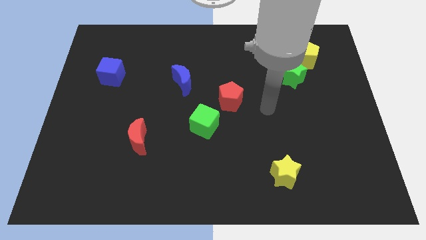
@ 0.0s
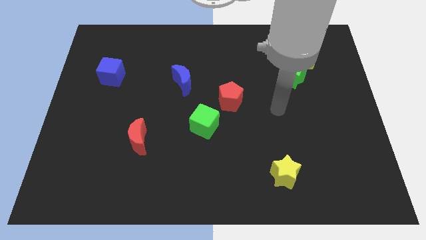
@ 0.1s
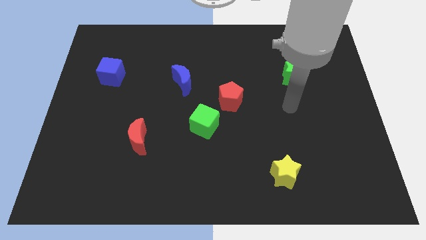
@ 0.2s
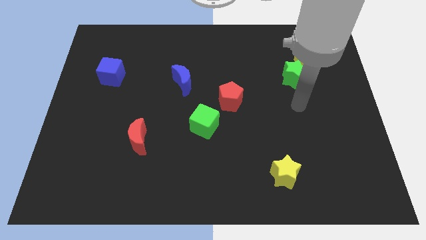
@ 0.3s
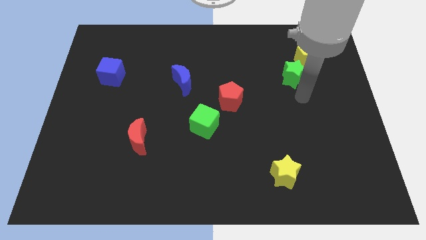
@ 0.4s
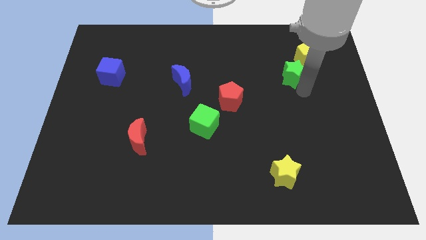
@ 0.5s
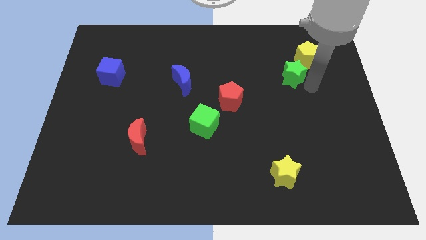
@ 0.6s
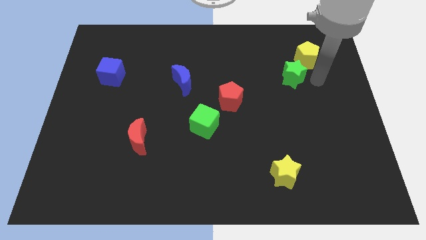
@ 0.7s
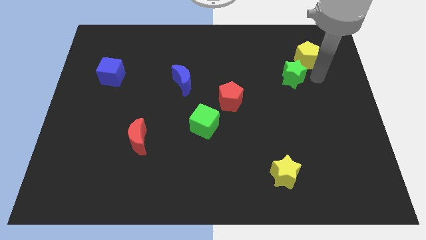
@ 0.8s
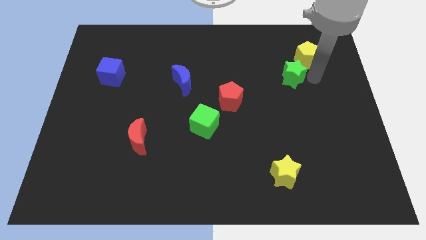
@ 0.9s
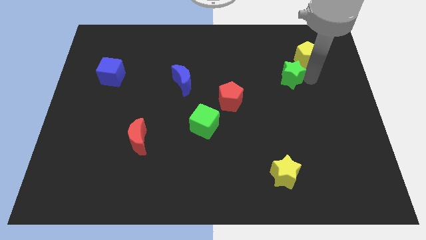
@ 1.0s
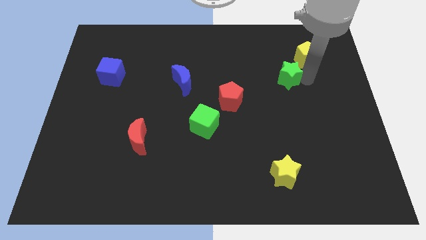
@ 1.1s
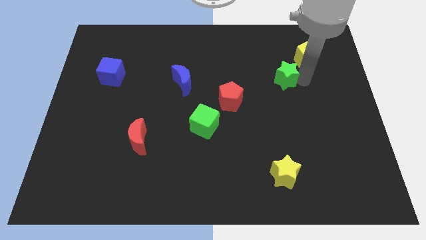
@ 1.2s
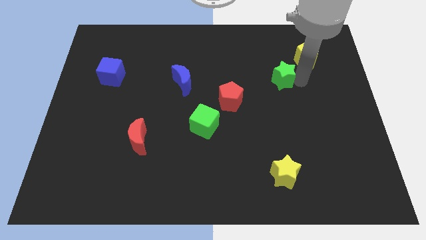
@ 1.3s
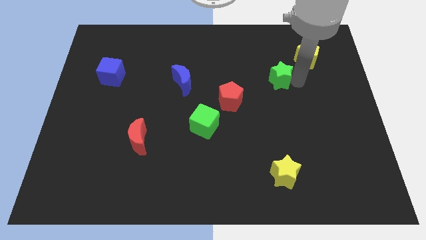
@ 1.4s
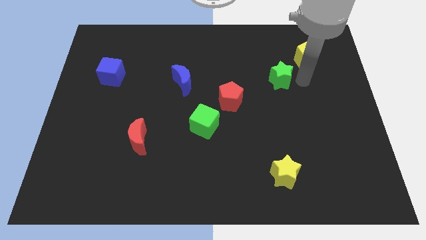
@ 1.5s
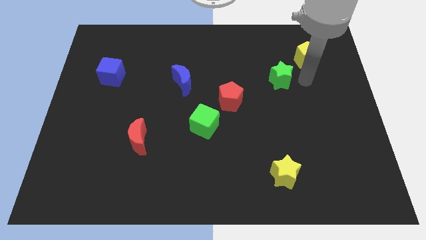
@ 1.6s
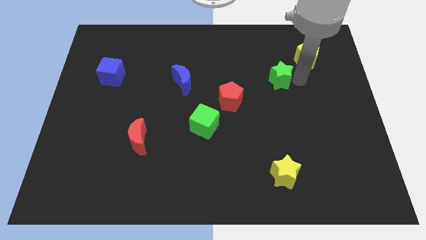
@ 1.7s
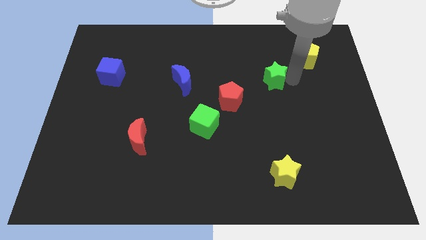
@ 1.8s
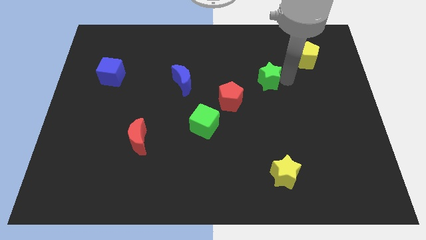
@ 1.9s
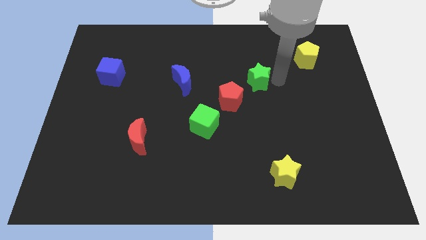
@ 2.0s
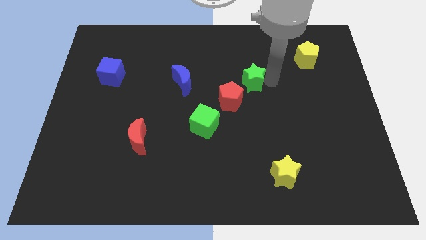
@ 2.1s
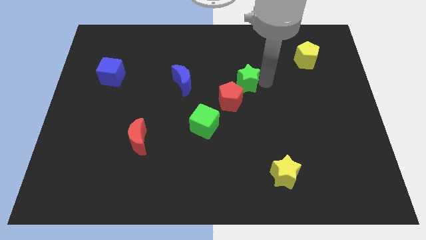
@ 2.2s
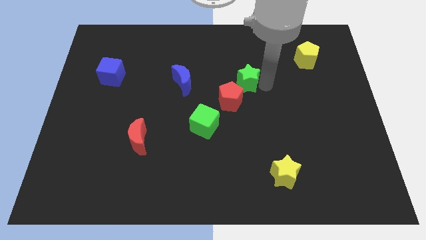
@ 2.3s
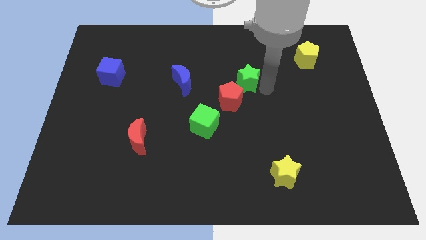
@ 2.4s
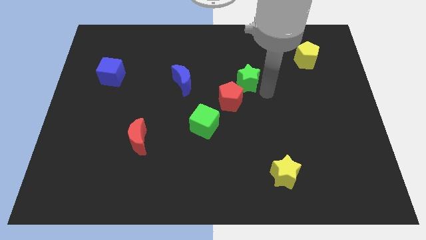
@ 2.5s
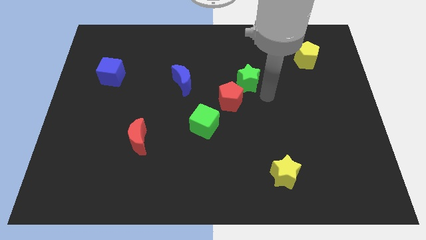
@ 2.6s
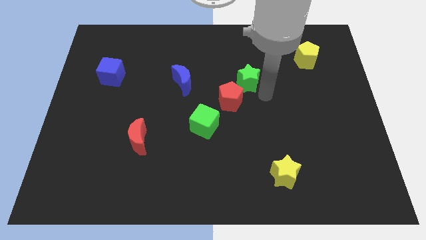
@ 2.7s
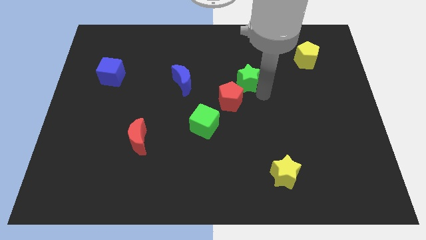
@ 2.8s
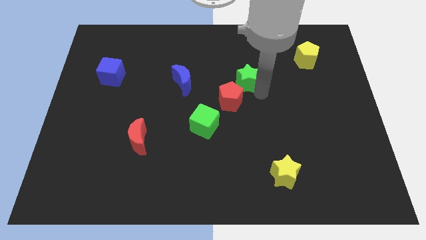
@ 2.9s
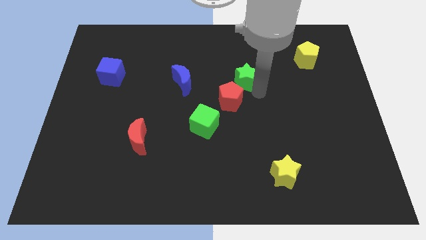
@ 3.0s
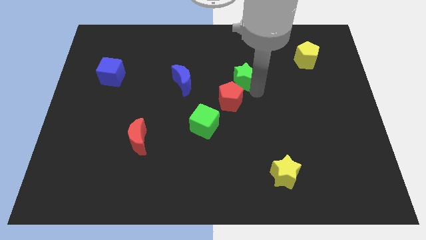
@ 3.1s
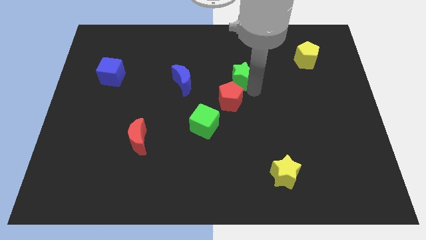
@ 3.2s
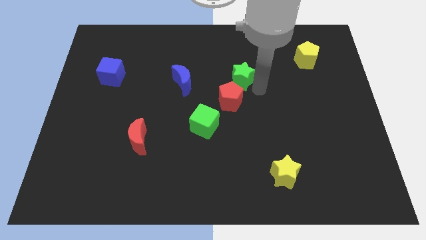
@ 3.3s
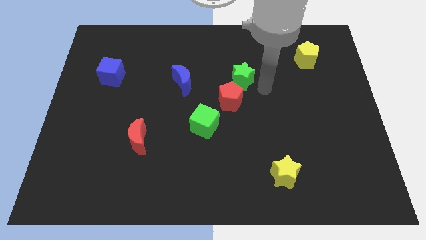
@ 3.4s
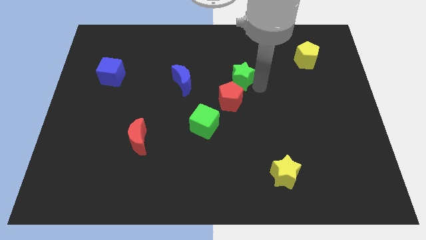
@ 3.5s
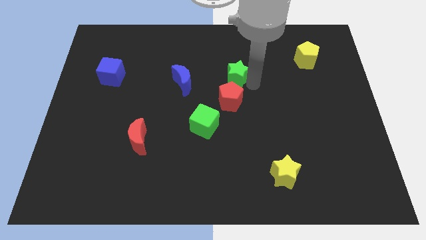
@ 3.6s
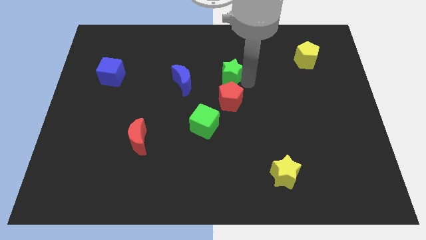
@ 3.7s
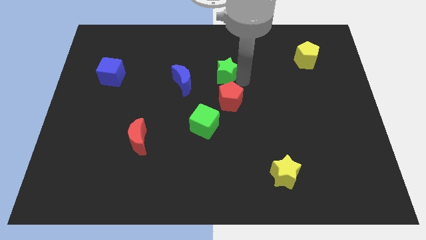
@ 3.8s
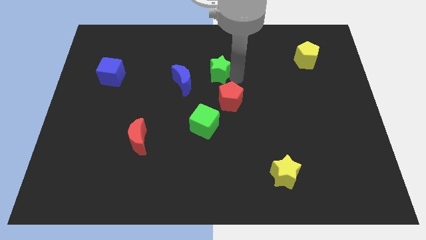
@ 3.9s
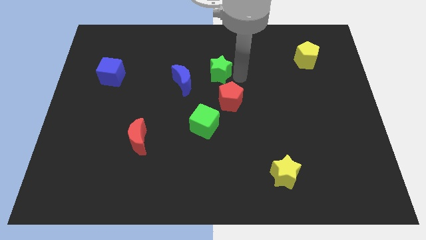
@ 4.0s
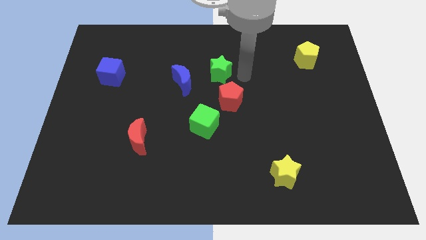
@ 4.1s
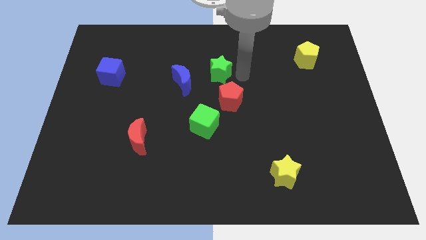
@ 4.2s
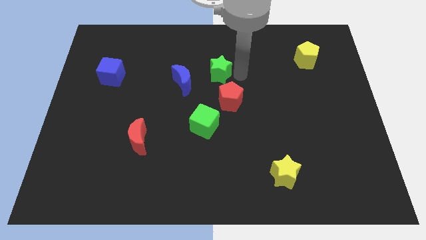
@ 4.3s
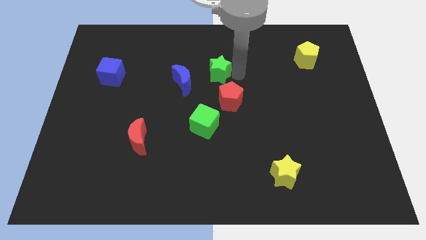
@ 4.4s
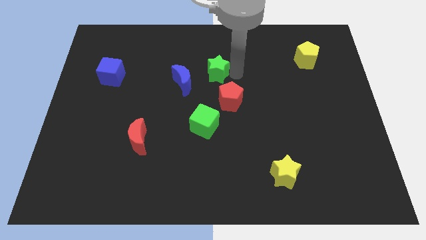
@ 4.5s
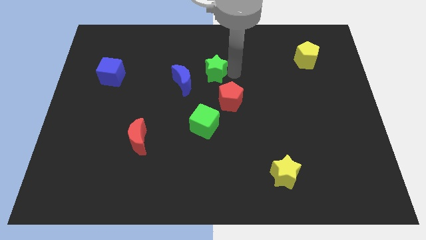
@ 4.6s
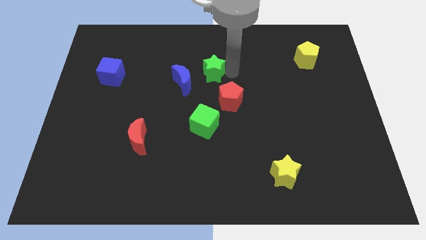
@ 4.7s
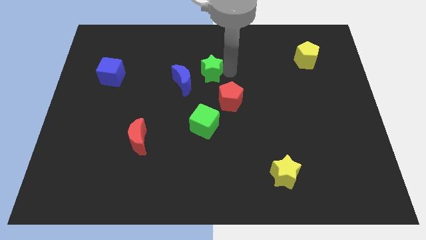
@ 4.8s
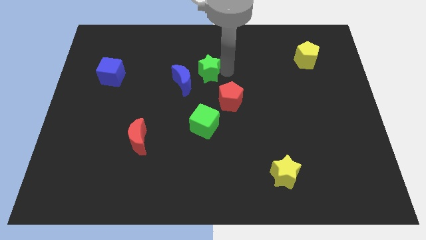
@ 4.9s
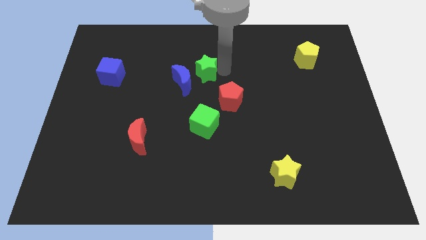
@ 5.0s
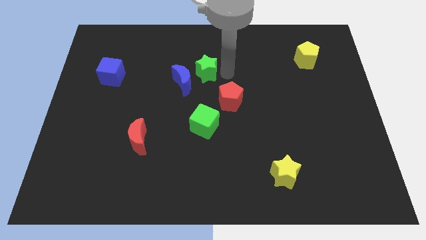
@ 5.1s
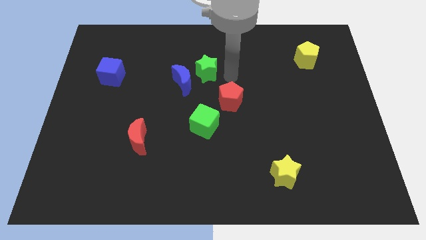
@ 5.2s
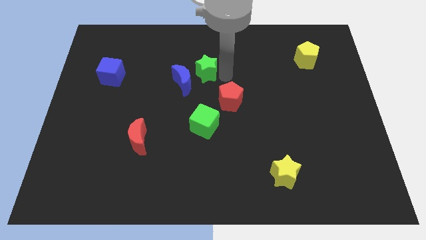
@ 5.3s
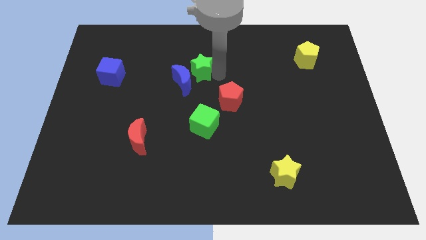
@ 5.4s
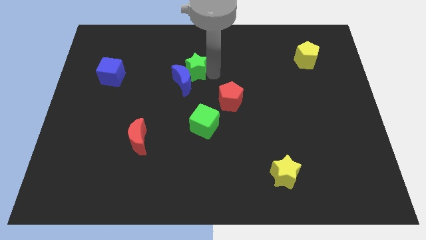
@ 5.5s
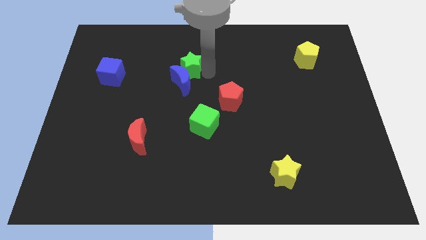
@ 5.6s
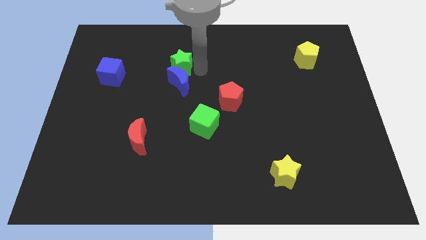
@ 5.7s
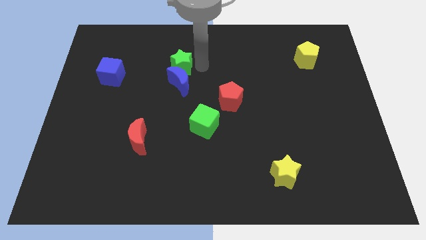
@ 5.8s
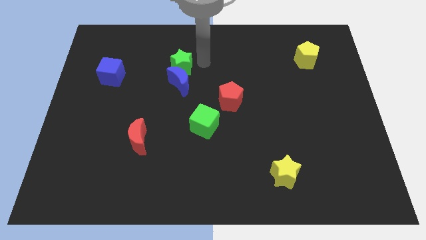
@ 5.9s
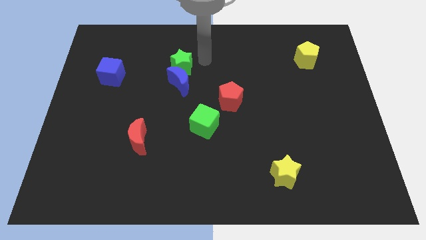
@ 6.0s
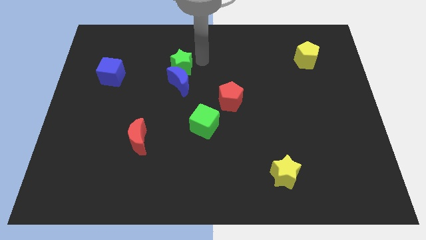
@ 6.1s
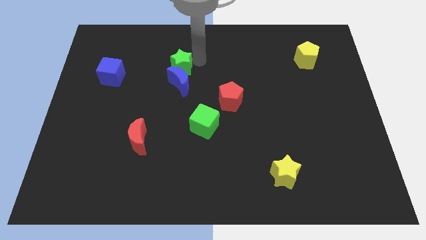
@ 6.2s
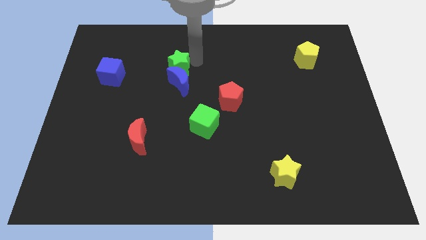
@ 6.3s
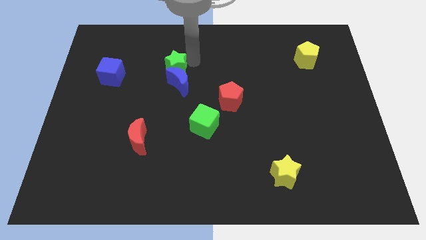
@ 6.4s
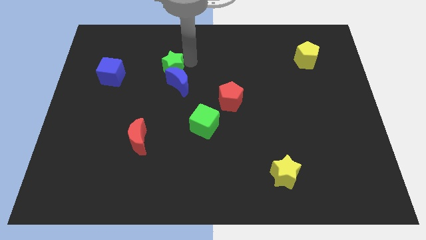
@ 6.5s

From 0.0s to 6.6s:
put the green star to the right of the blue cube

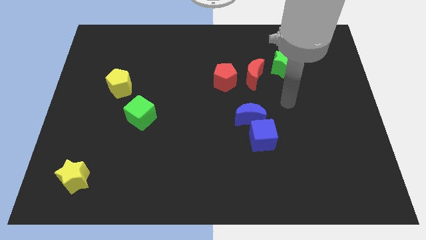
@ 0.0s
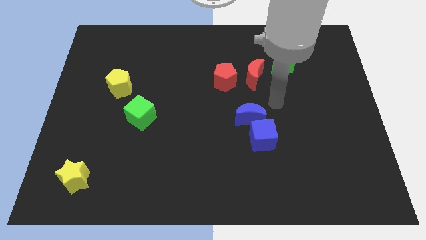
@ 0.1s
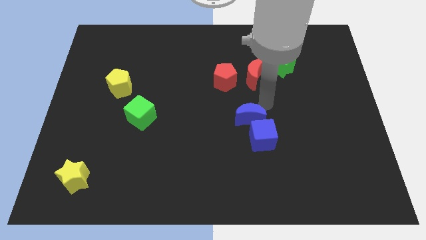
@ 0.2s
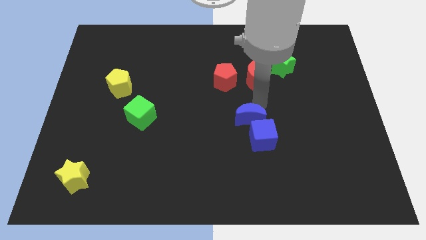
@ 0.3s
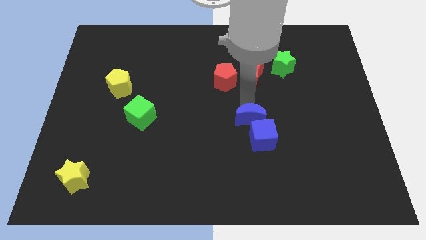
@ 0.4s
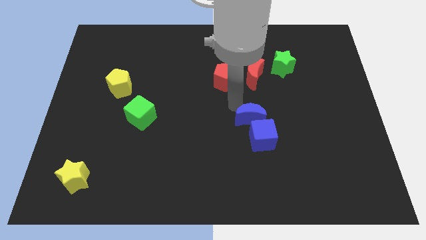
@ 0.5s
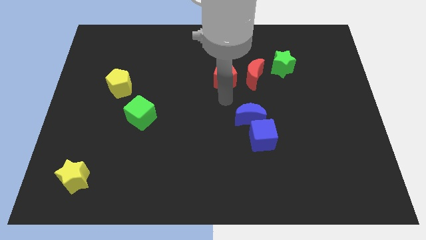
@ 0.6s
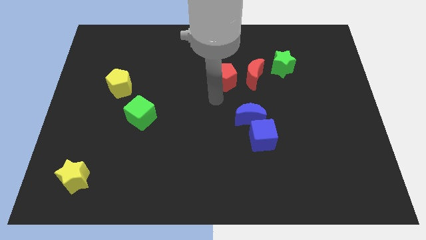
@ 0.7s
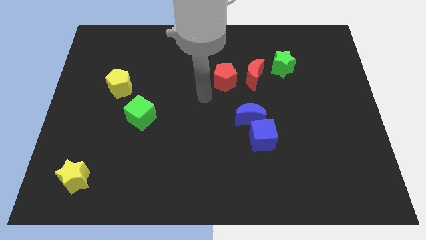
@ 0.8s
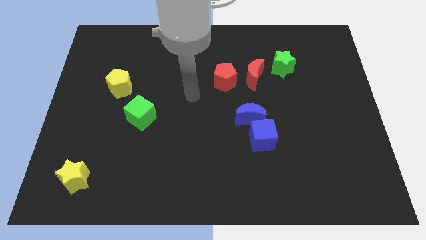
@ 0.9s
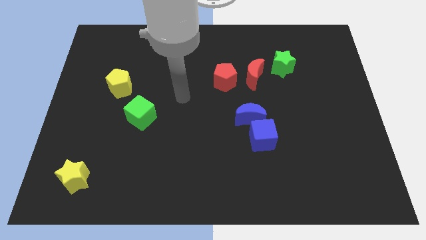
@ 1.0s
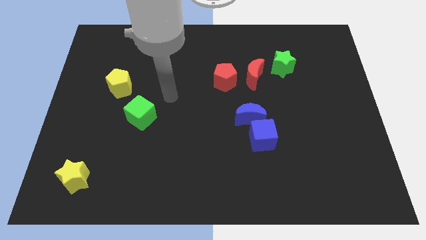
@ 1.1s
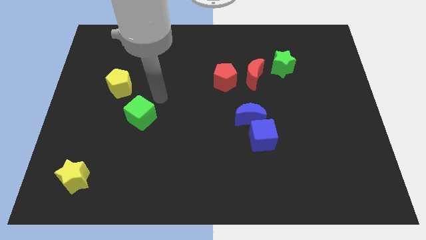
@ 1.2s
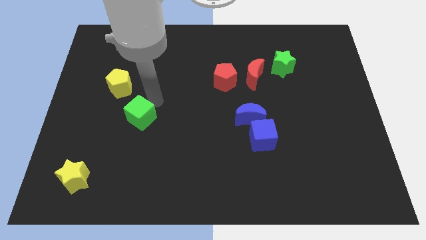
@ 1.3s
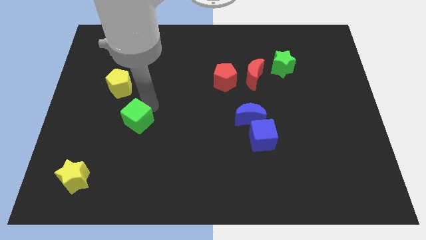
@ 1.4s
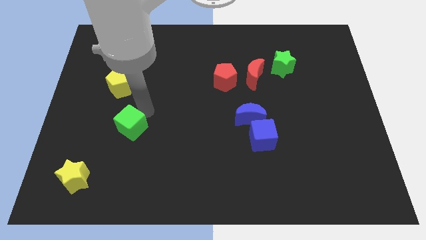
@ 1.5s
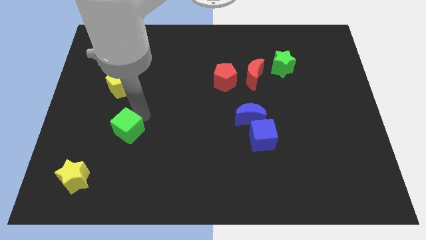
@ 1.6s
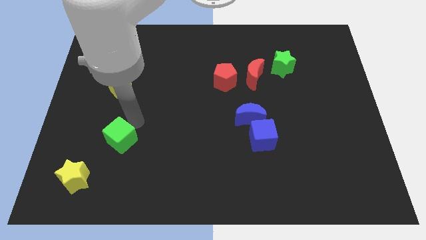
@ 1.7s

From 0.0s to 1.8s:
put the green cube diagonally up and to the right of the yellow star
